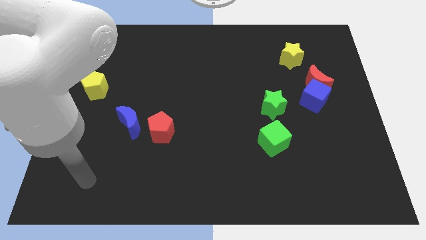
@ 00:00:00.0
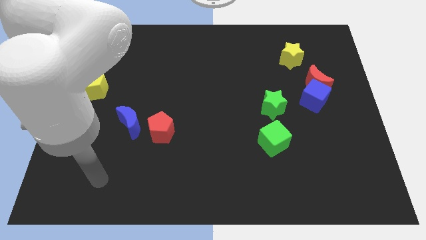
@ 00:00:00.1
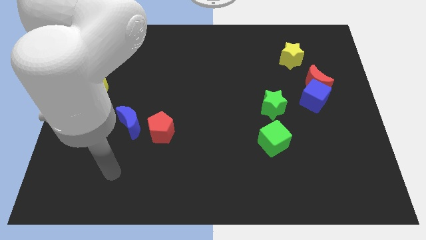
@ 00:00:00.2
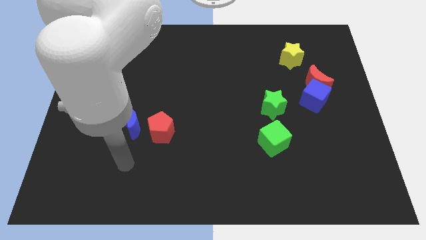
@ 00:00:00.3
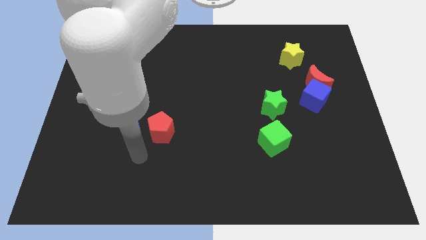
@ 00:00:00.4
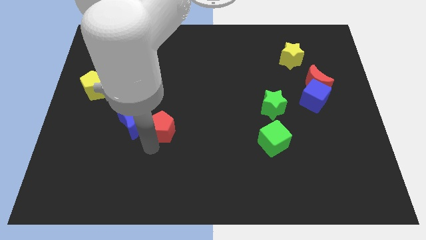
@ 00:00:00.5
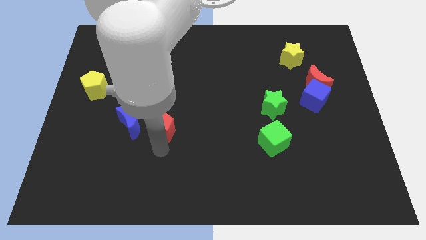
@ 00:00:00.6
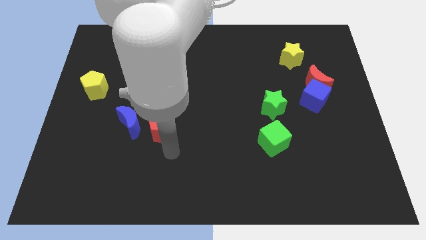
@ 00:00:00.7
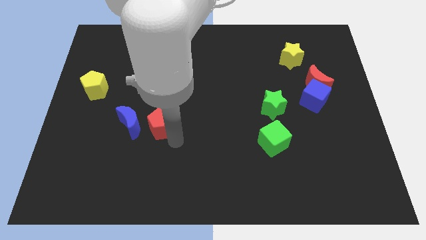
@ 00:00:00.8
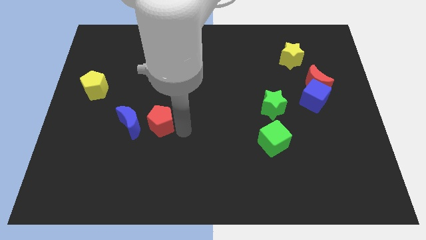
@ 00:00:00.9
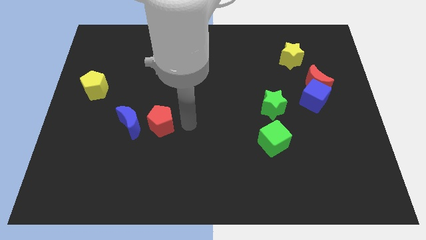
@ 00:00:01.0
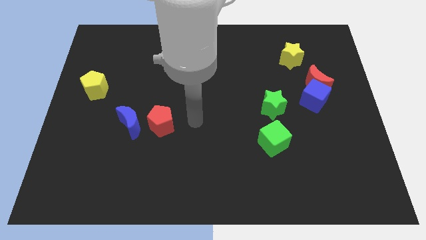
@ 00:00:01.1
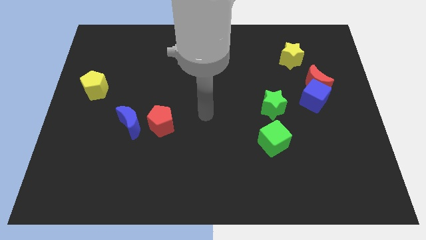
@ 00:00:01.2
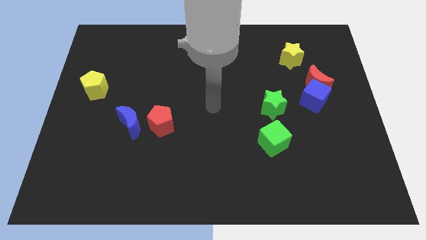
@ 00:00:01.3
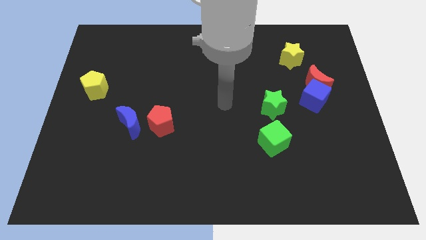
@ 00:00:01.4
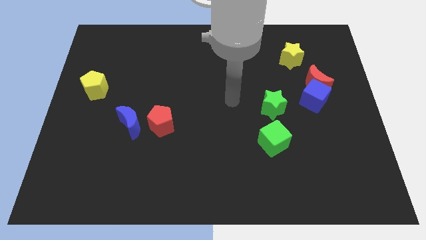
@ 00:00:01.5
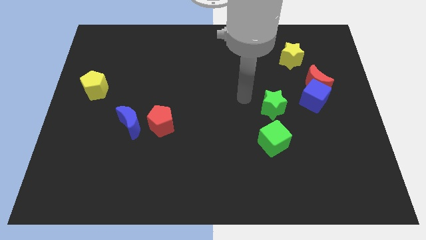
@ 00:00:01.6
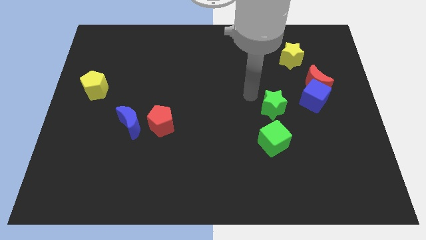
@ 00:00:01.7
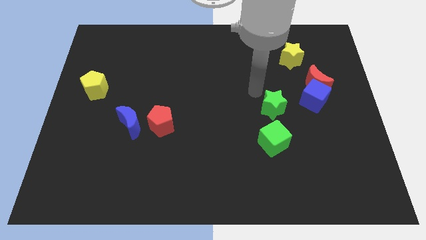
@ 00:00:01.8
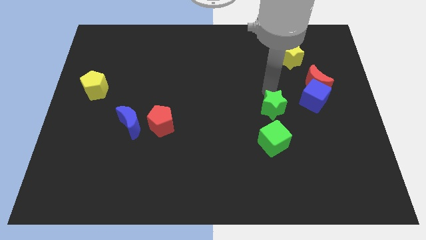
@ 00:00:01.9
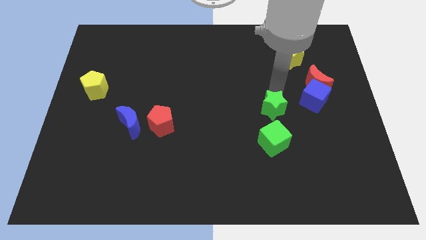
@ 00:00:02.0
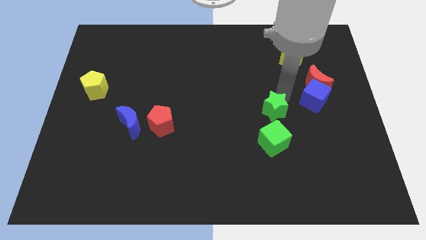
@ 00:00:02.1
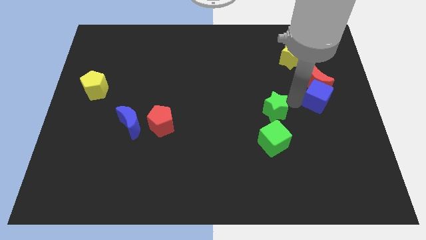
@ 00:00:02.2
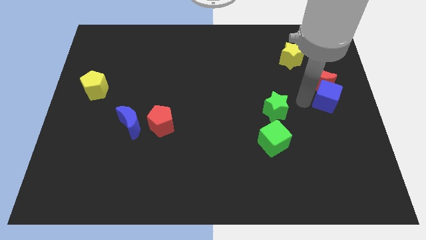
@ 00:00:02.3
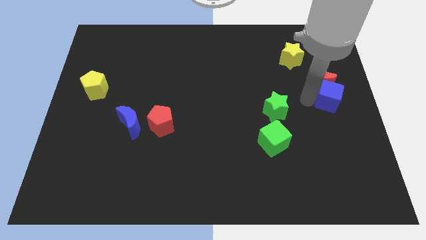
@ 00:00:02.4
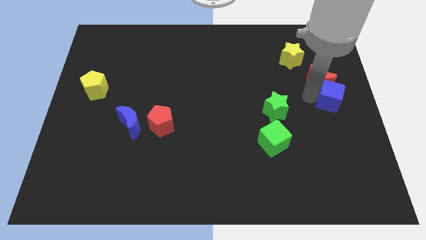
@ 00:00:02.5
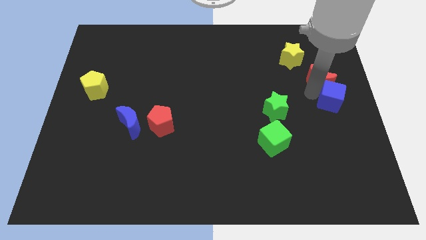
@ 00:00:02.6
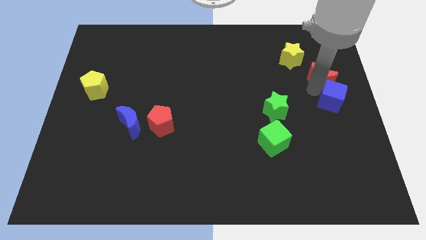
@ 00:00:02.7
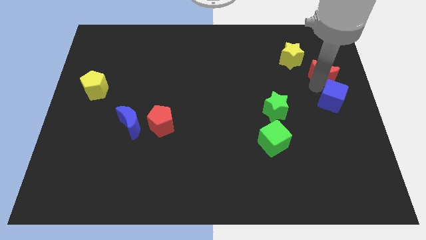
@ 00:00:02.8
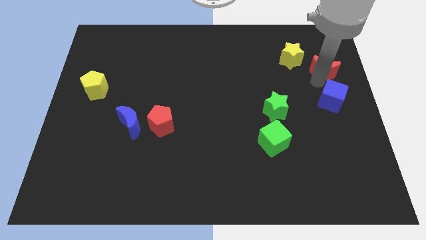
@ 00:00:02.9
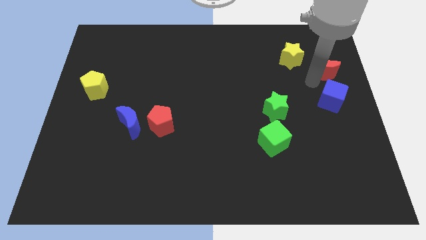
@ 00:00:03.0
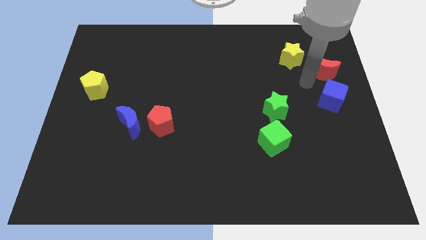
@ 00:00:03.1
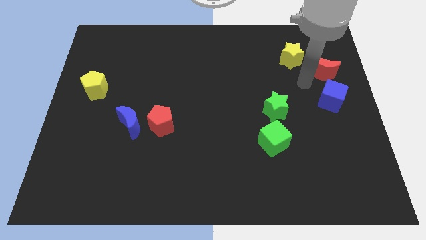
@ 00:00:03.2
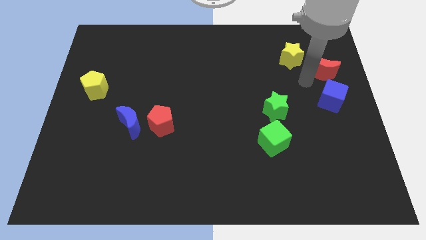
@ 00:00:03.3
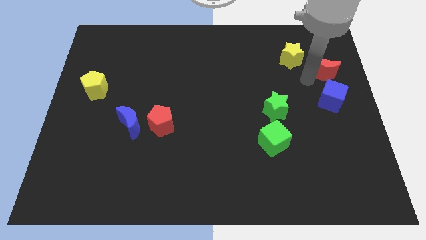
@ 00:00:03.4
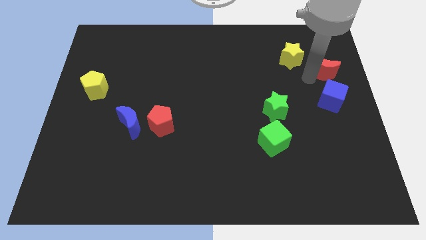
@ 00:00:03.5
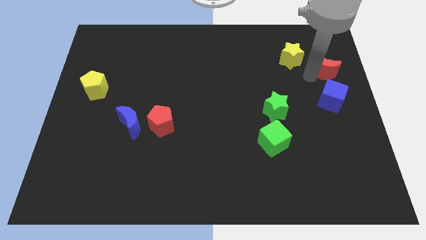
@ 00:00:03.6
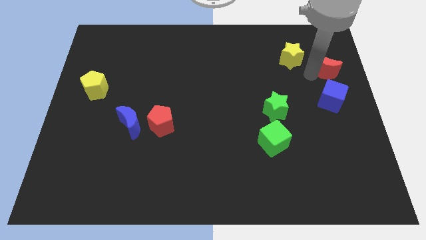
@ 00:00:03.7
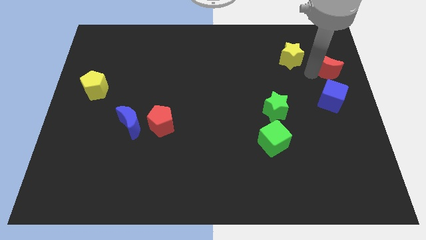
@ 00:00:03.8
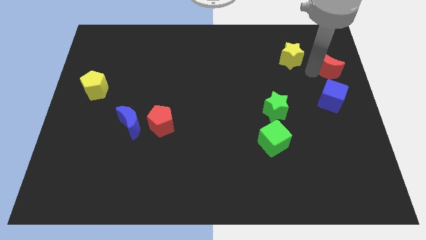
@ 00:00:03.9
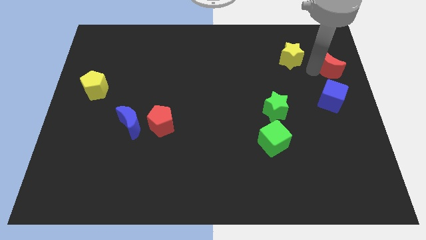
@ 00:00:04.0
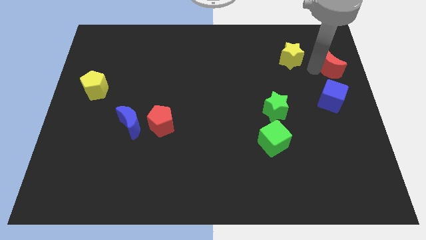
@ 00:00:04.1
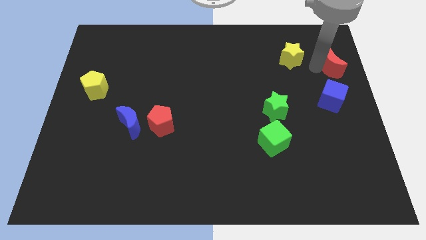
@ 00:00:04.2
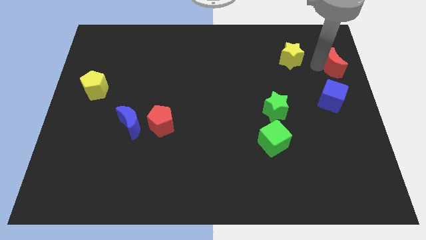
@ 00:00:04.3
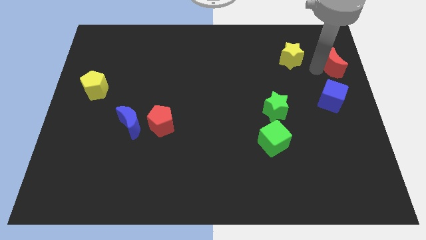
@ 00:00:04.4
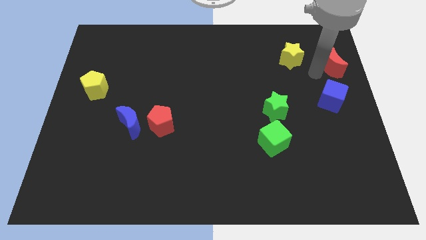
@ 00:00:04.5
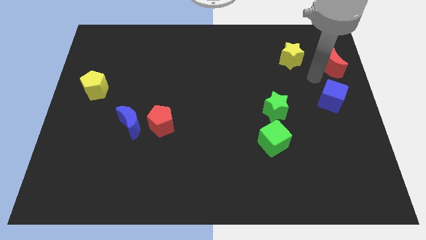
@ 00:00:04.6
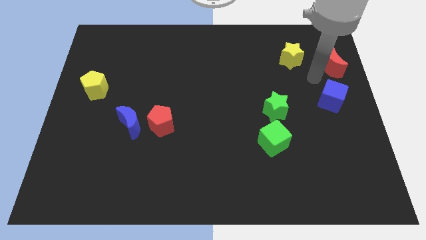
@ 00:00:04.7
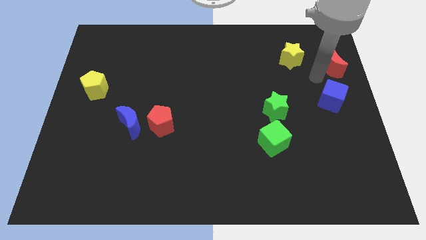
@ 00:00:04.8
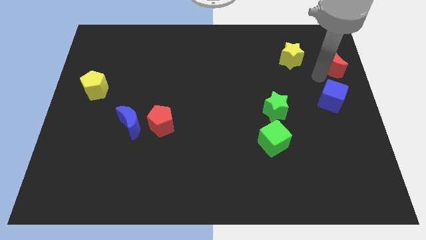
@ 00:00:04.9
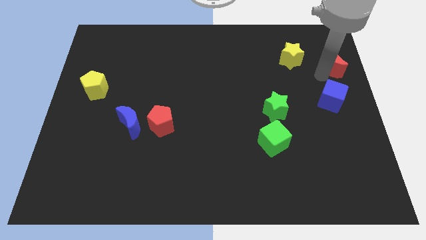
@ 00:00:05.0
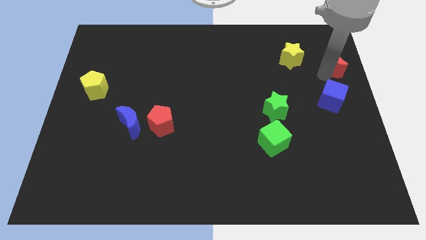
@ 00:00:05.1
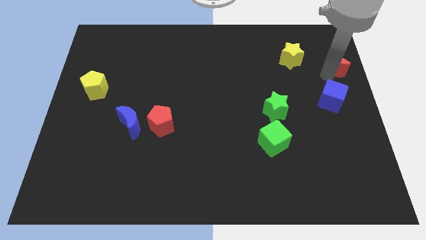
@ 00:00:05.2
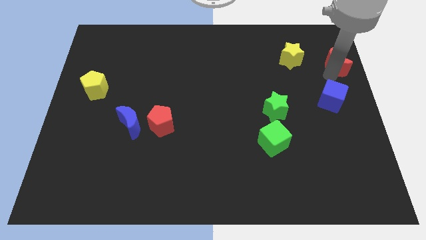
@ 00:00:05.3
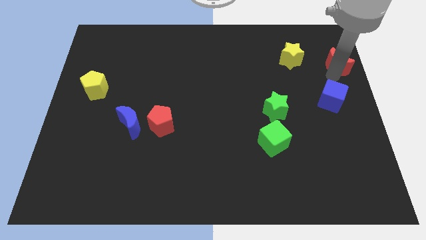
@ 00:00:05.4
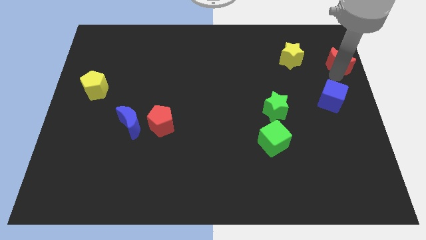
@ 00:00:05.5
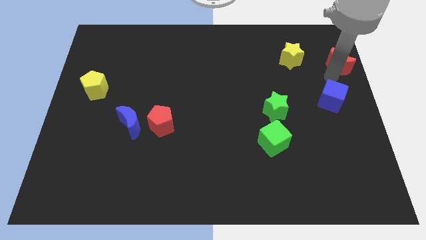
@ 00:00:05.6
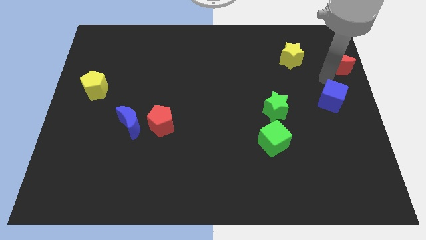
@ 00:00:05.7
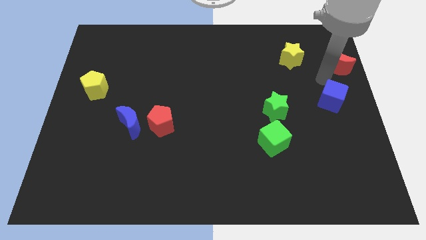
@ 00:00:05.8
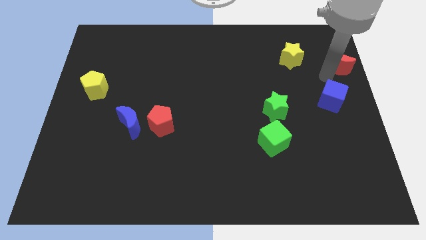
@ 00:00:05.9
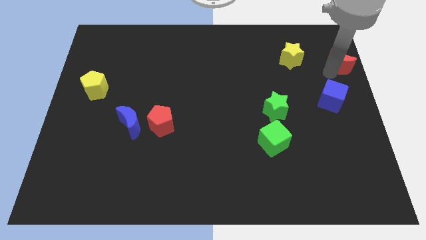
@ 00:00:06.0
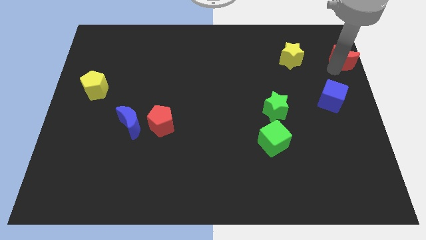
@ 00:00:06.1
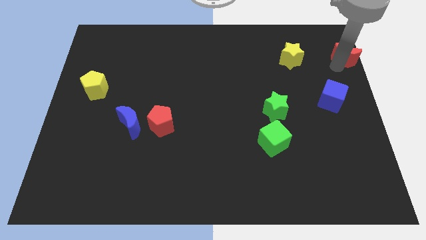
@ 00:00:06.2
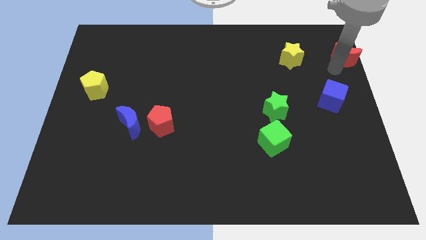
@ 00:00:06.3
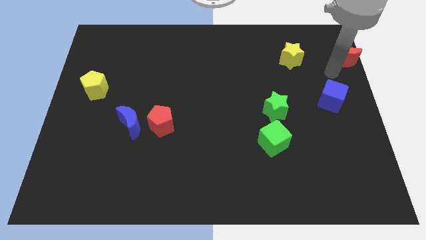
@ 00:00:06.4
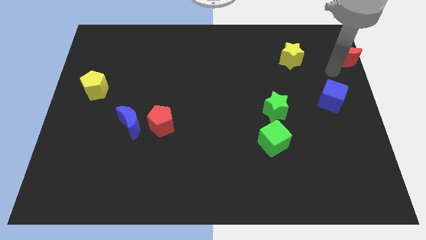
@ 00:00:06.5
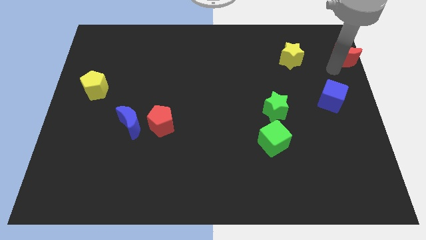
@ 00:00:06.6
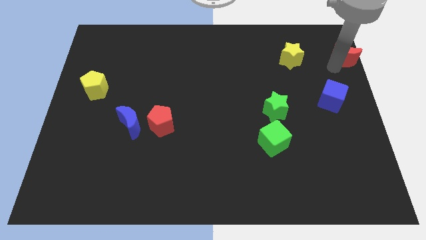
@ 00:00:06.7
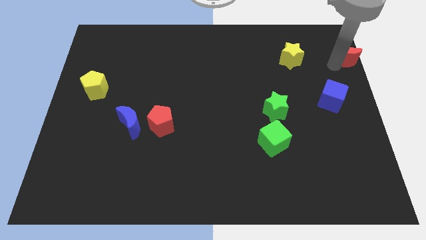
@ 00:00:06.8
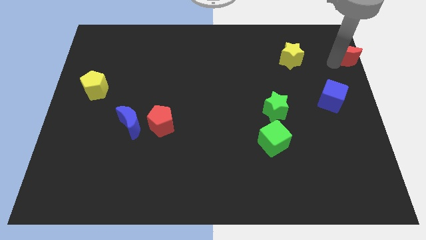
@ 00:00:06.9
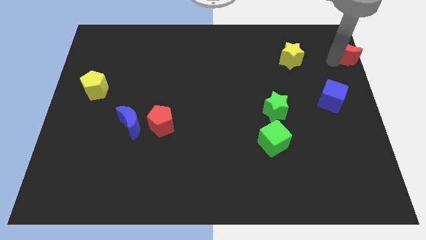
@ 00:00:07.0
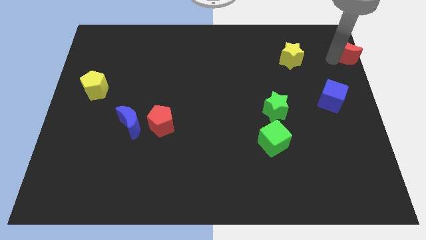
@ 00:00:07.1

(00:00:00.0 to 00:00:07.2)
slide the red moon to the top right
